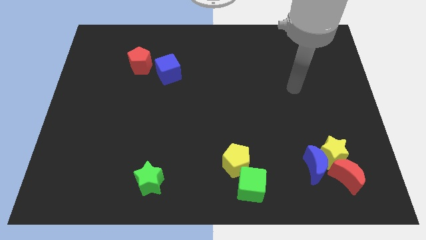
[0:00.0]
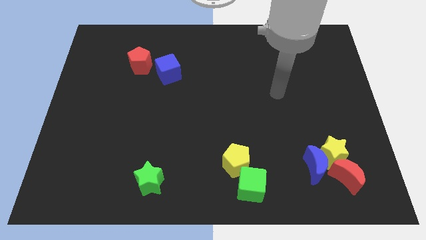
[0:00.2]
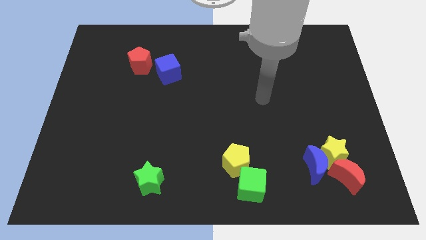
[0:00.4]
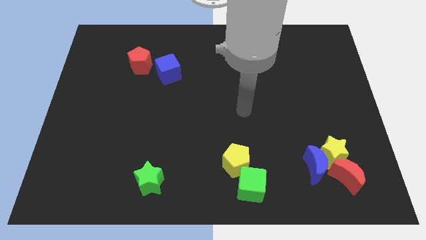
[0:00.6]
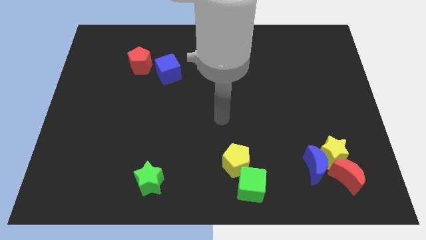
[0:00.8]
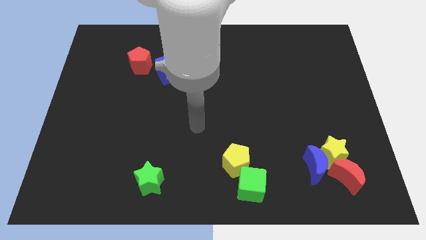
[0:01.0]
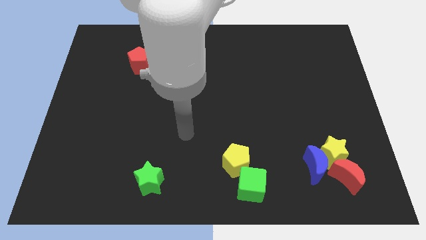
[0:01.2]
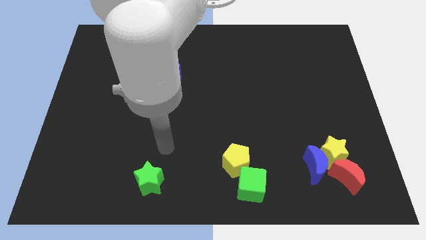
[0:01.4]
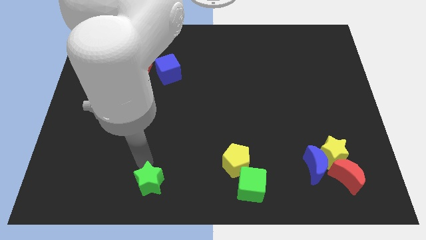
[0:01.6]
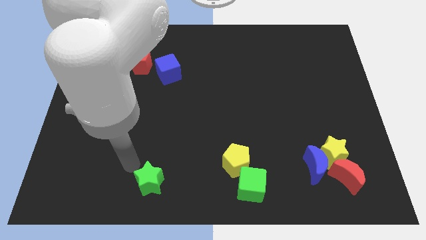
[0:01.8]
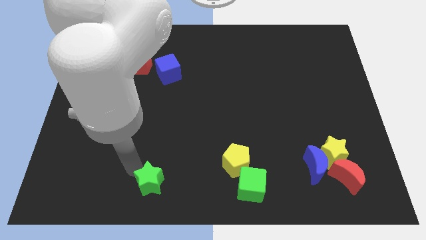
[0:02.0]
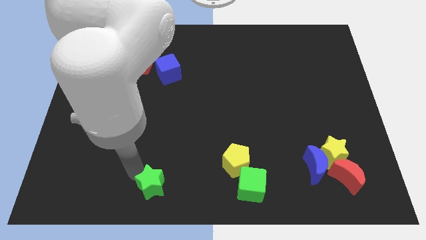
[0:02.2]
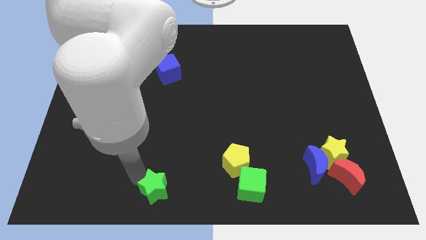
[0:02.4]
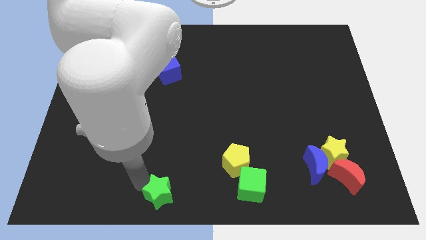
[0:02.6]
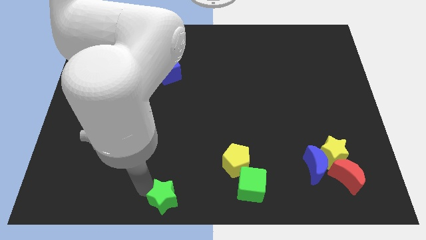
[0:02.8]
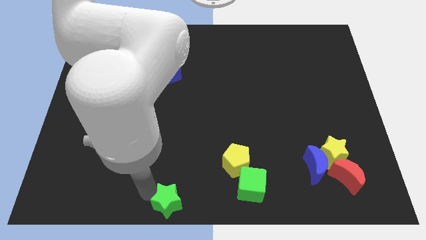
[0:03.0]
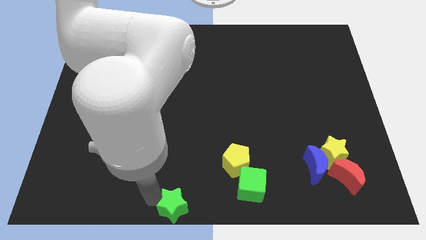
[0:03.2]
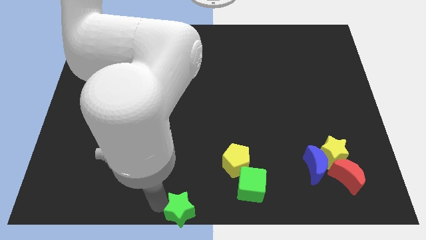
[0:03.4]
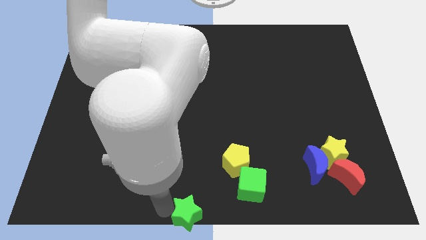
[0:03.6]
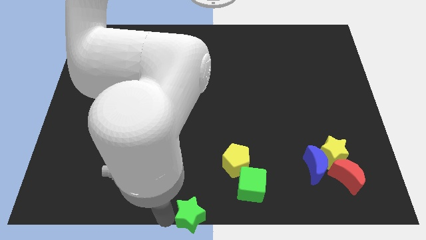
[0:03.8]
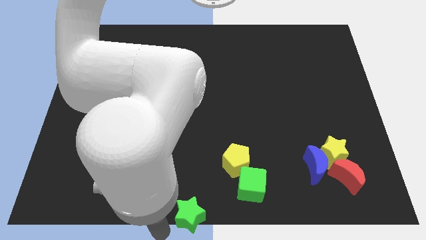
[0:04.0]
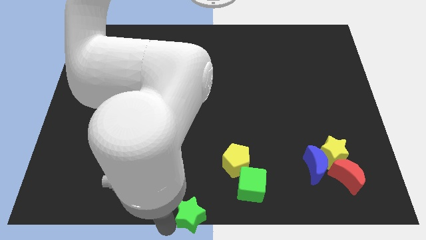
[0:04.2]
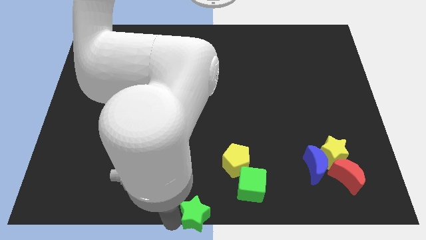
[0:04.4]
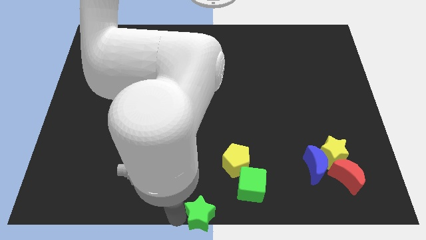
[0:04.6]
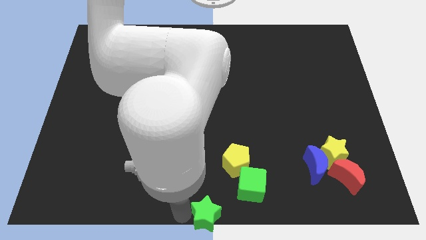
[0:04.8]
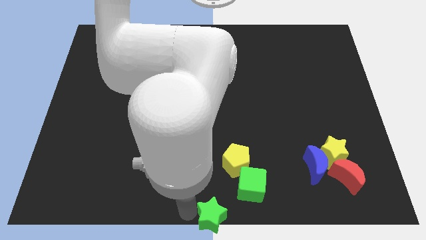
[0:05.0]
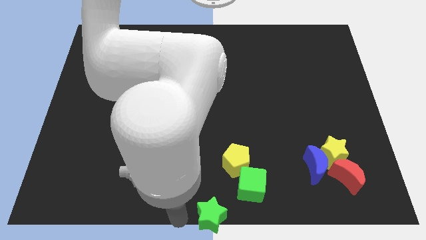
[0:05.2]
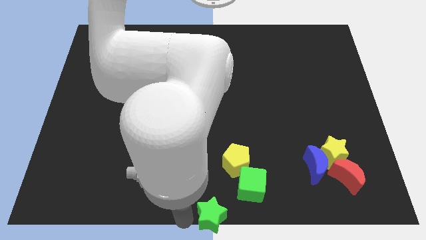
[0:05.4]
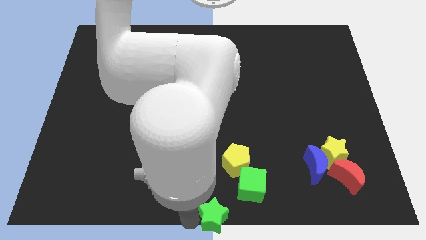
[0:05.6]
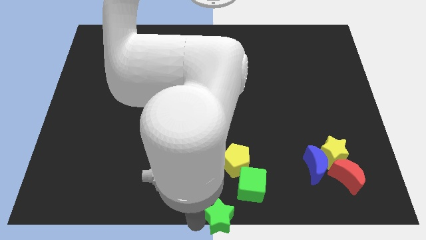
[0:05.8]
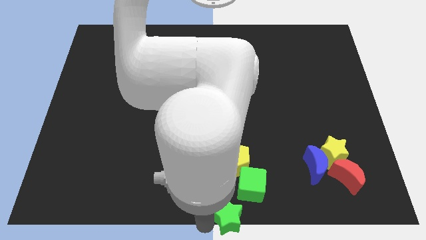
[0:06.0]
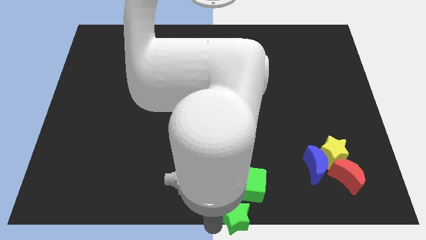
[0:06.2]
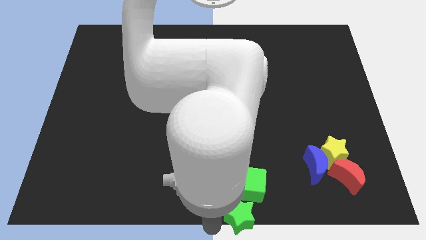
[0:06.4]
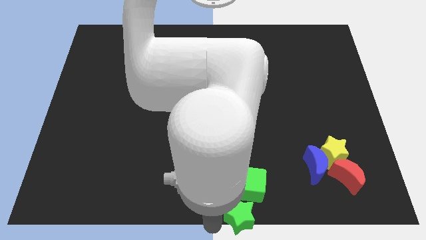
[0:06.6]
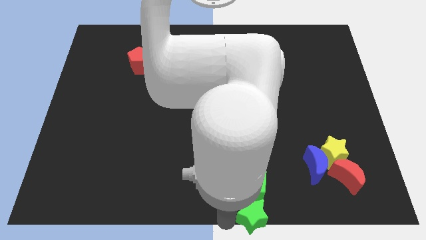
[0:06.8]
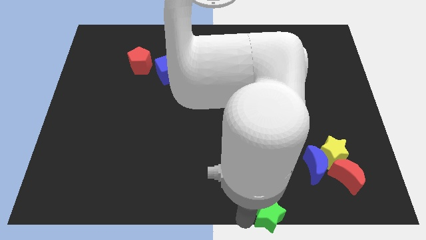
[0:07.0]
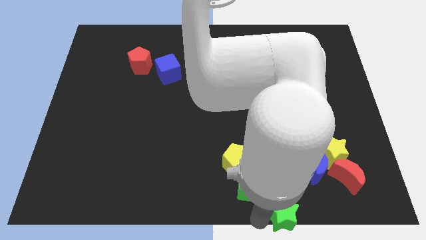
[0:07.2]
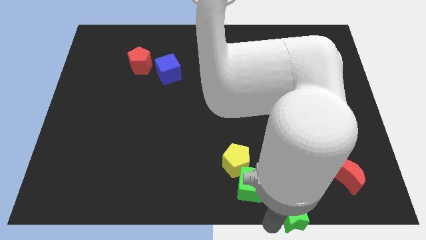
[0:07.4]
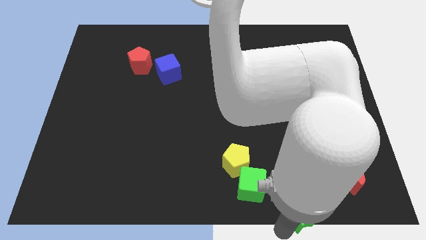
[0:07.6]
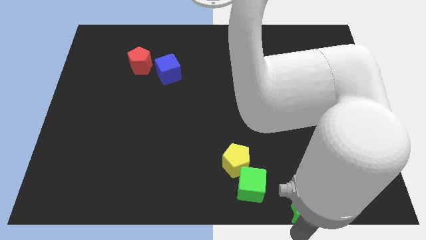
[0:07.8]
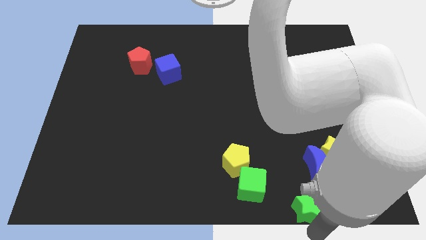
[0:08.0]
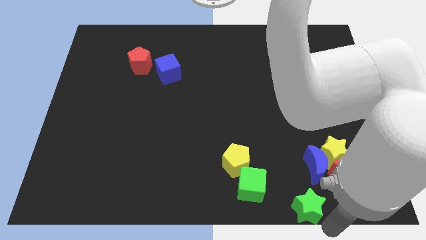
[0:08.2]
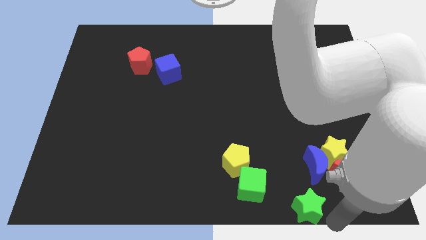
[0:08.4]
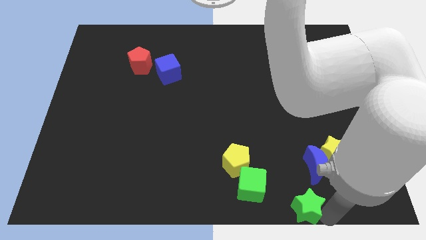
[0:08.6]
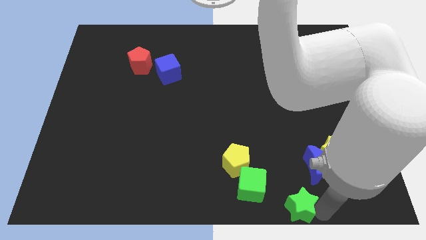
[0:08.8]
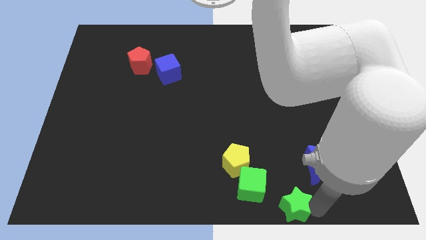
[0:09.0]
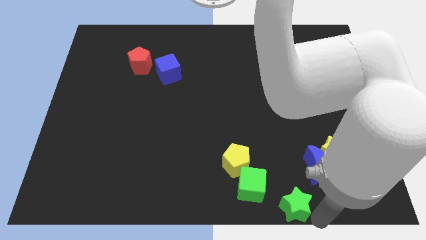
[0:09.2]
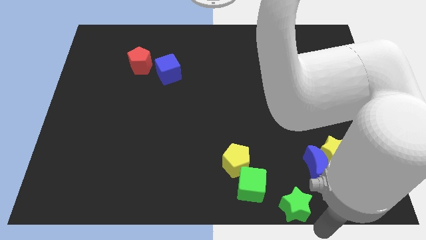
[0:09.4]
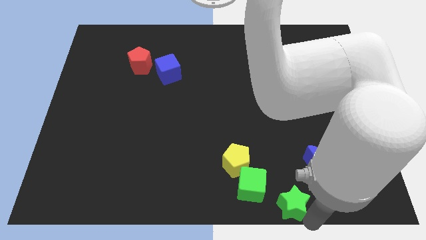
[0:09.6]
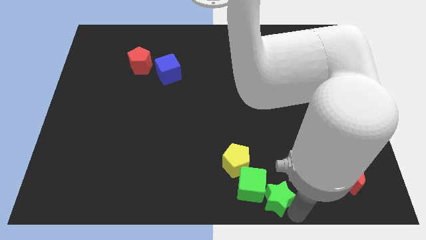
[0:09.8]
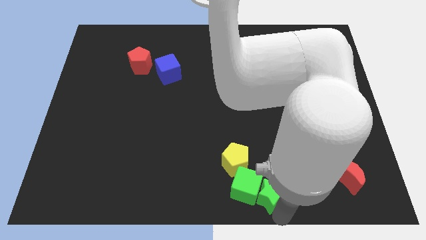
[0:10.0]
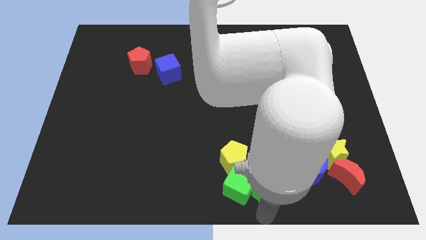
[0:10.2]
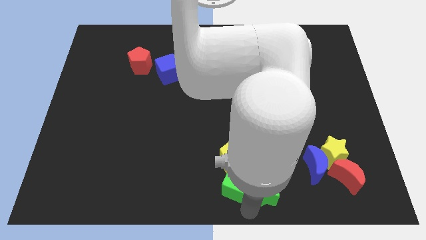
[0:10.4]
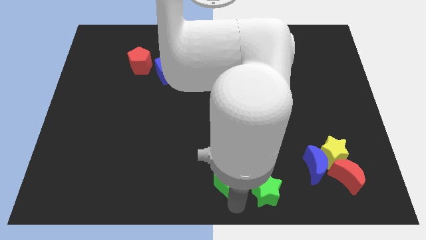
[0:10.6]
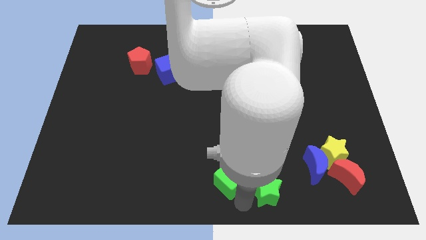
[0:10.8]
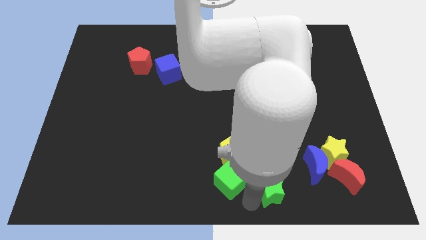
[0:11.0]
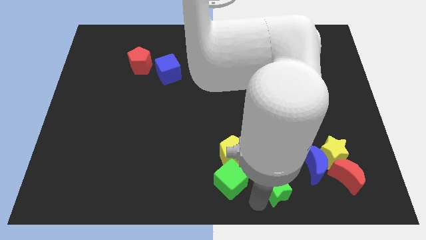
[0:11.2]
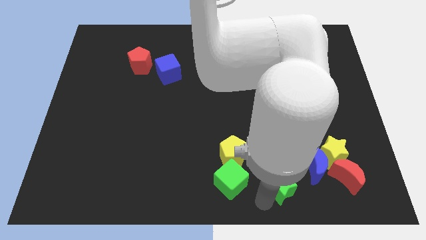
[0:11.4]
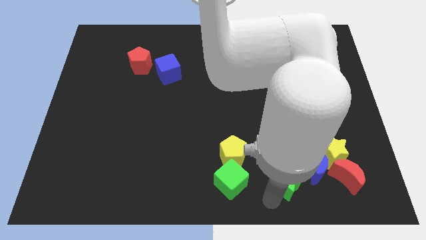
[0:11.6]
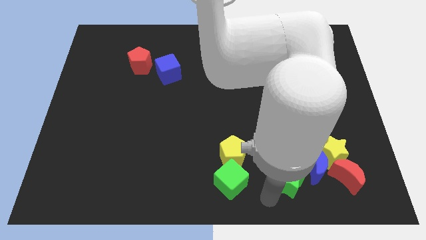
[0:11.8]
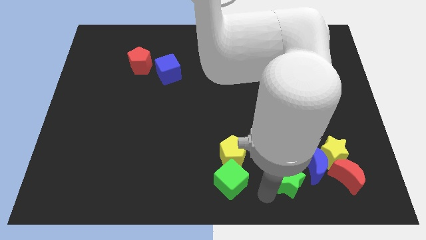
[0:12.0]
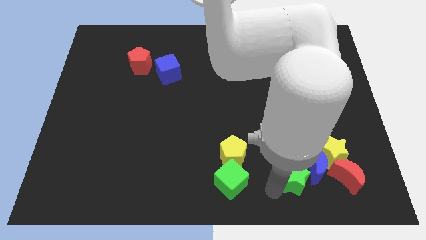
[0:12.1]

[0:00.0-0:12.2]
slide the green star to the blue moon

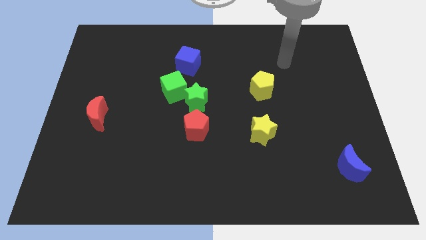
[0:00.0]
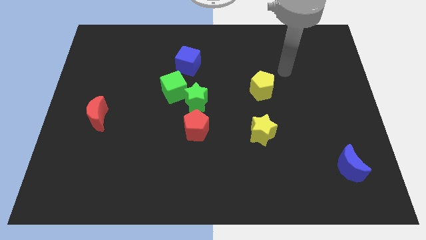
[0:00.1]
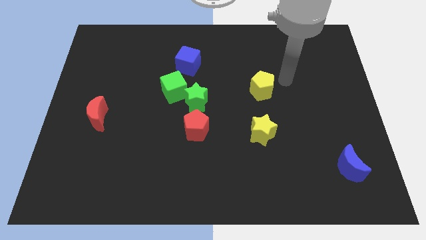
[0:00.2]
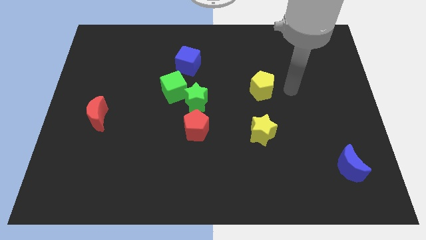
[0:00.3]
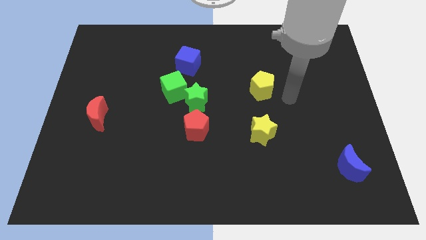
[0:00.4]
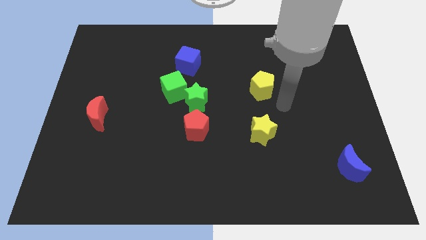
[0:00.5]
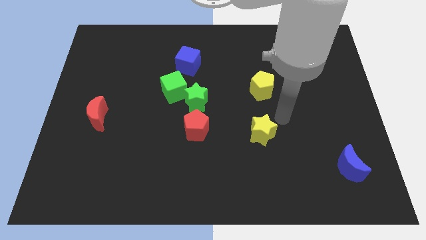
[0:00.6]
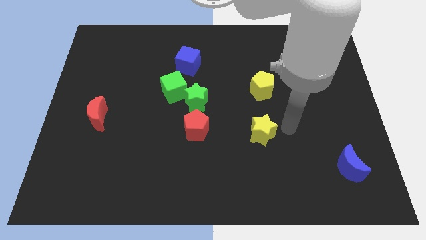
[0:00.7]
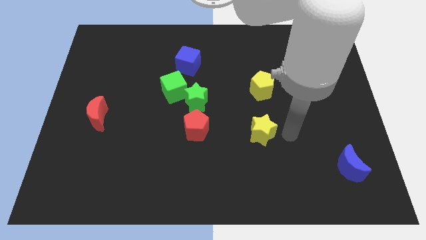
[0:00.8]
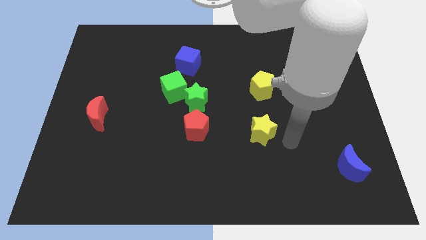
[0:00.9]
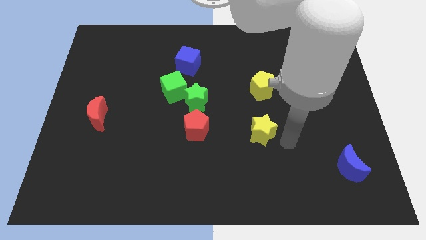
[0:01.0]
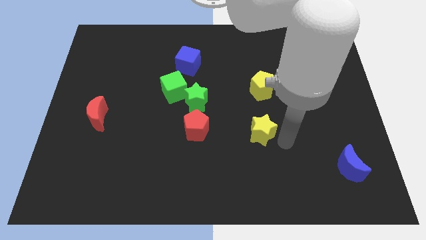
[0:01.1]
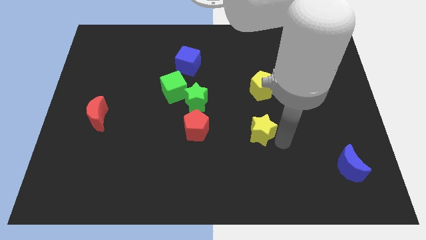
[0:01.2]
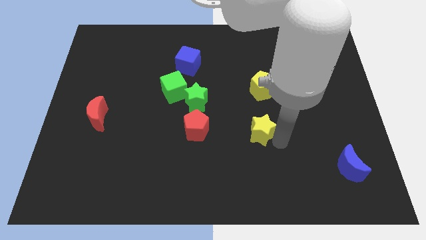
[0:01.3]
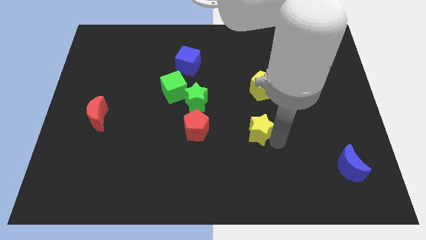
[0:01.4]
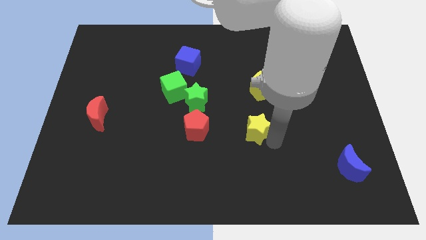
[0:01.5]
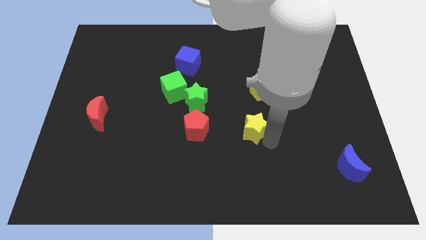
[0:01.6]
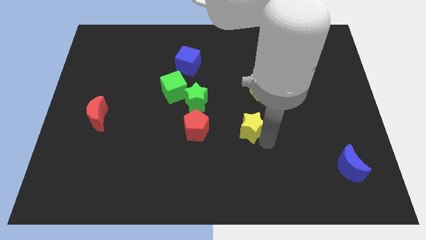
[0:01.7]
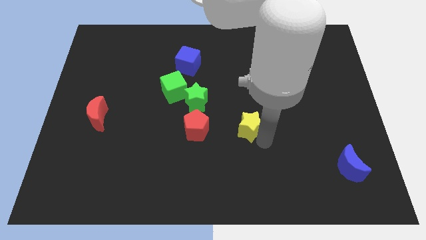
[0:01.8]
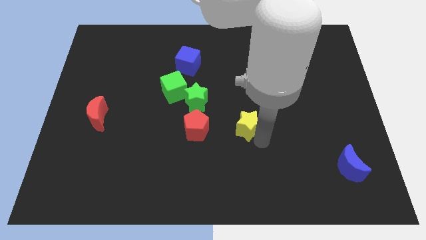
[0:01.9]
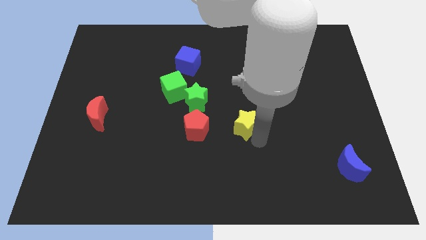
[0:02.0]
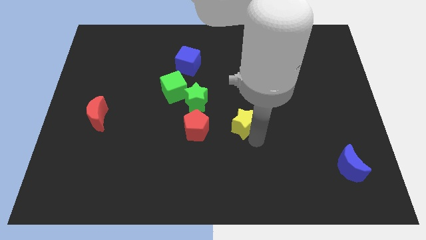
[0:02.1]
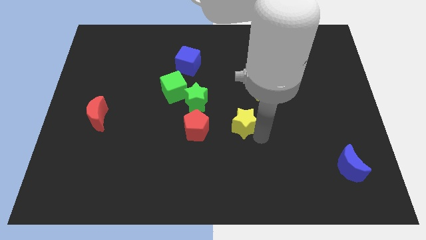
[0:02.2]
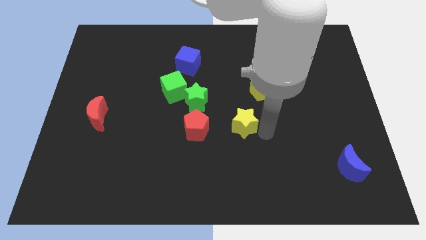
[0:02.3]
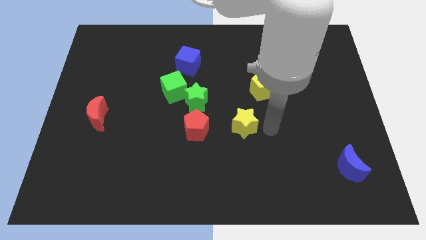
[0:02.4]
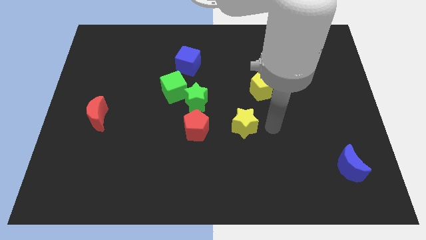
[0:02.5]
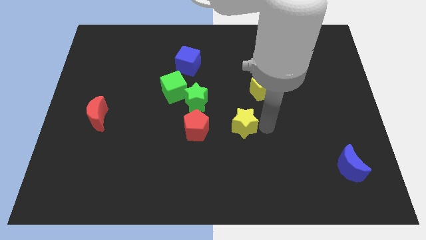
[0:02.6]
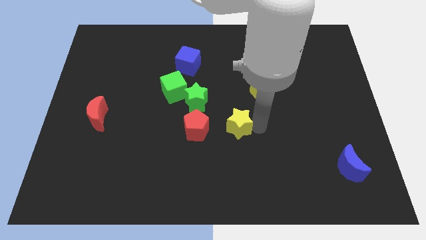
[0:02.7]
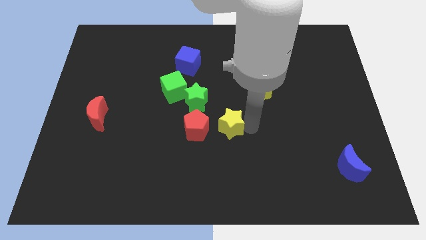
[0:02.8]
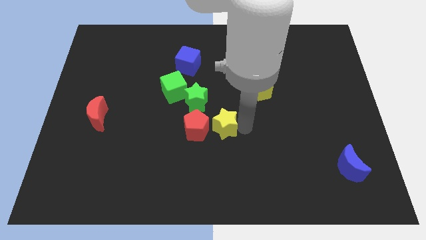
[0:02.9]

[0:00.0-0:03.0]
push the yellow star next to the red pentagon
